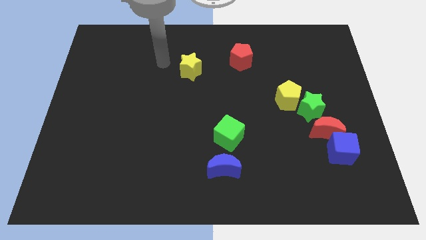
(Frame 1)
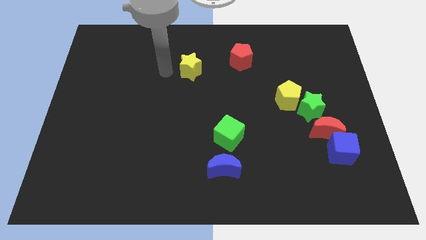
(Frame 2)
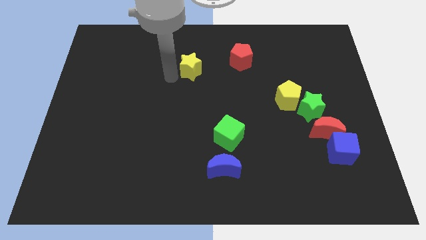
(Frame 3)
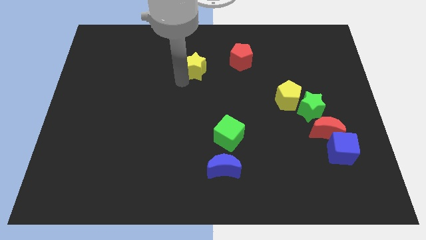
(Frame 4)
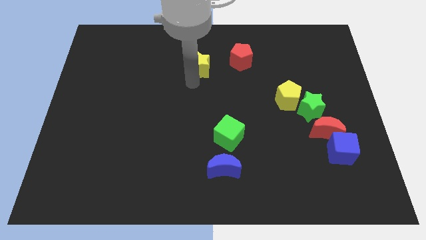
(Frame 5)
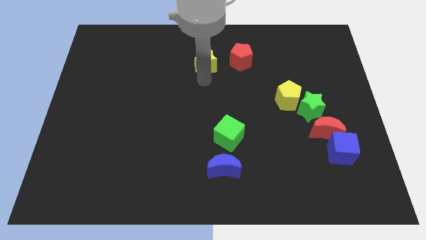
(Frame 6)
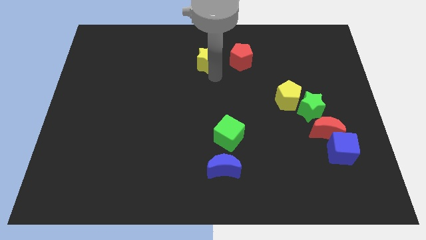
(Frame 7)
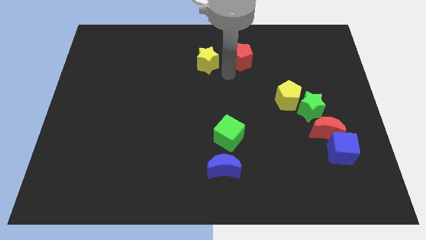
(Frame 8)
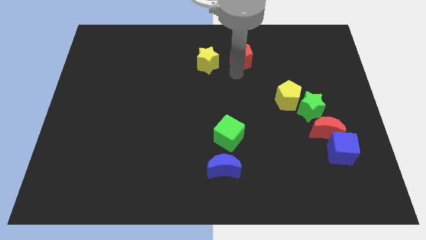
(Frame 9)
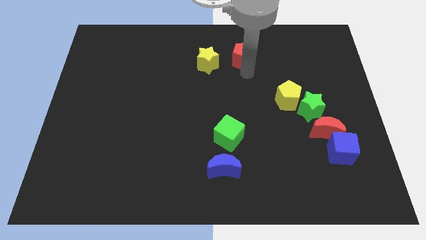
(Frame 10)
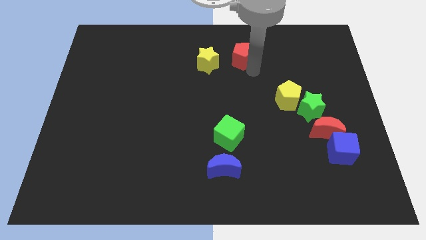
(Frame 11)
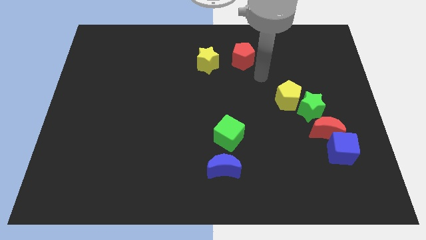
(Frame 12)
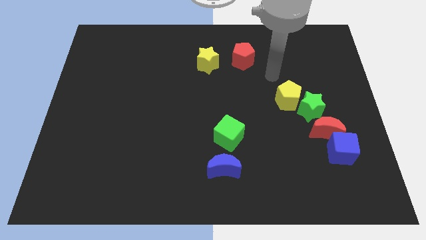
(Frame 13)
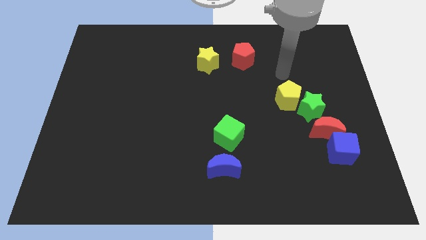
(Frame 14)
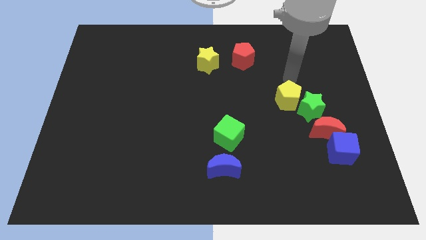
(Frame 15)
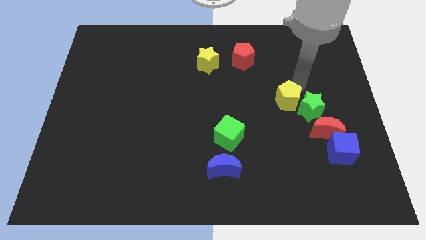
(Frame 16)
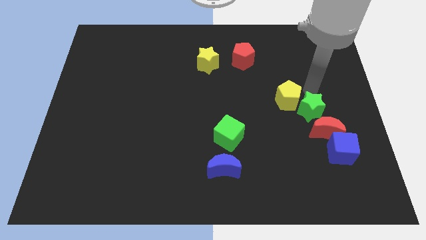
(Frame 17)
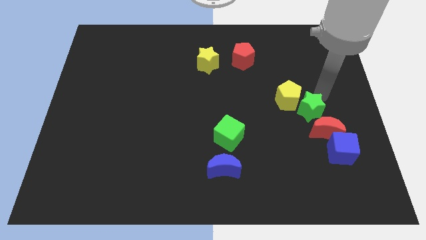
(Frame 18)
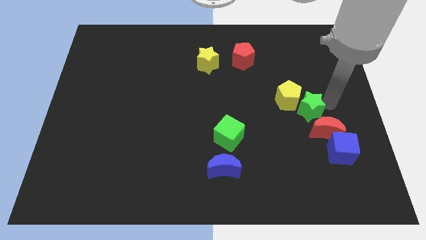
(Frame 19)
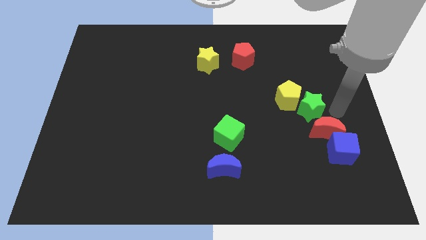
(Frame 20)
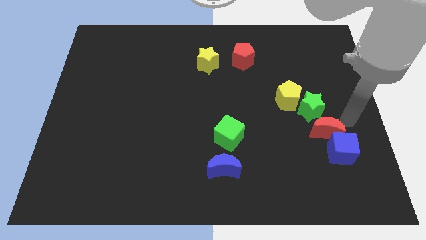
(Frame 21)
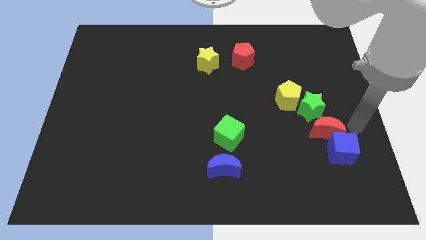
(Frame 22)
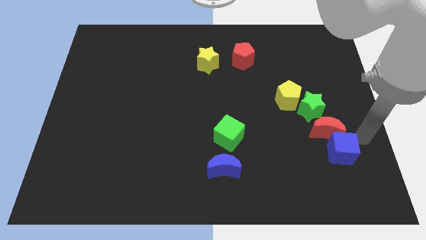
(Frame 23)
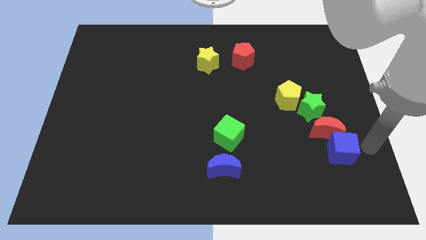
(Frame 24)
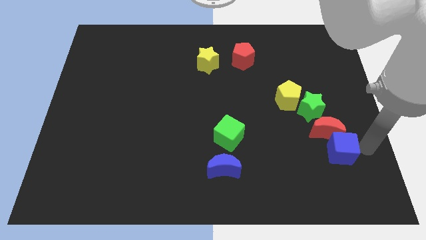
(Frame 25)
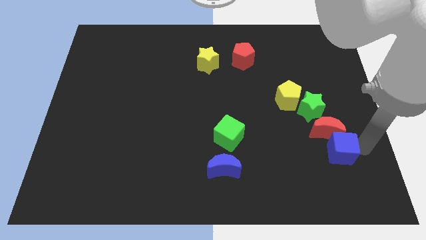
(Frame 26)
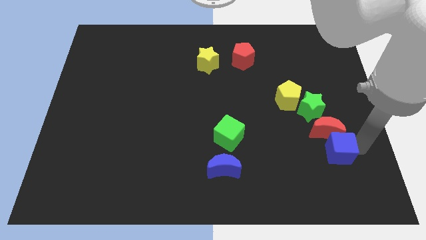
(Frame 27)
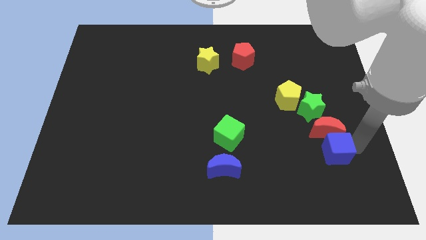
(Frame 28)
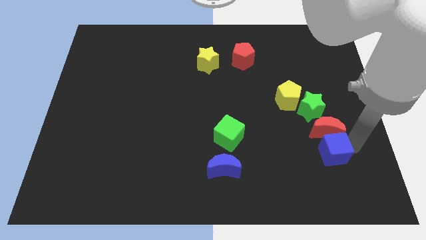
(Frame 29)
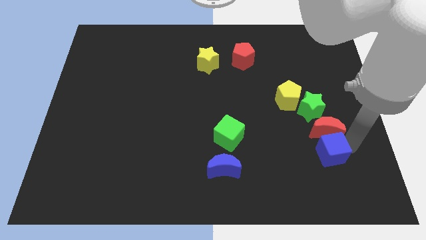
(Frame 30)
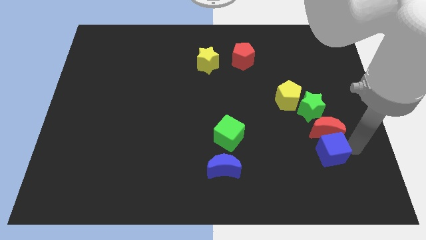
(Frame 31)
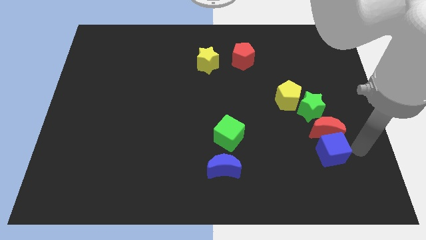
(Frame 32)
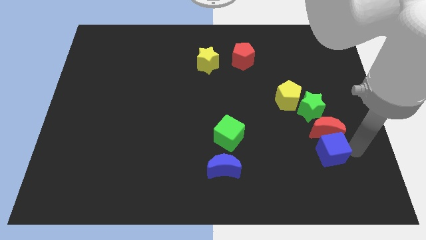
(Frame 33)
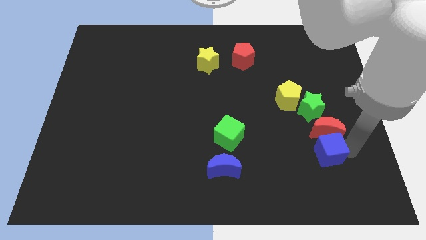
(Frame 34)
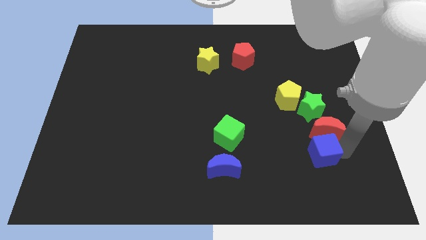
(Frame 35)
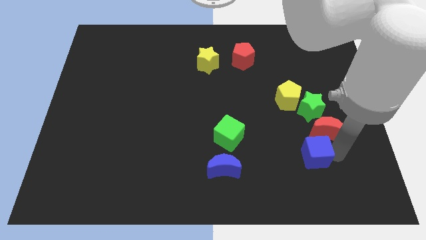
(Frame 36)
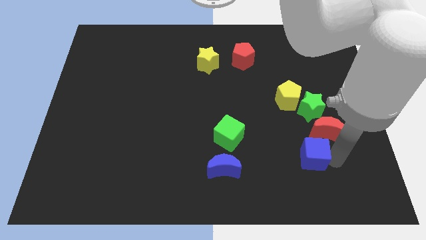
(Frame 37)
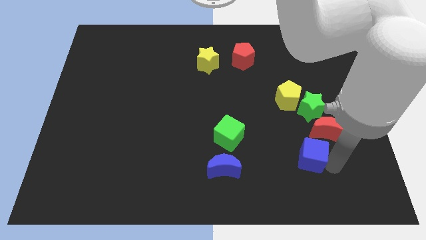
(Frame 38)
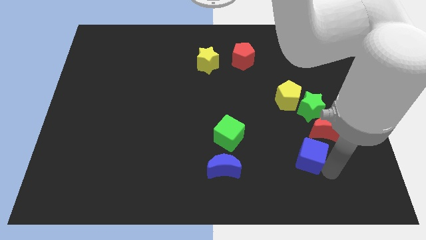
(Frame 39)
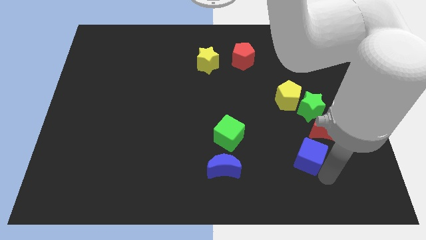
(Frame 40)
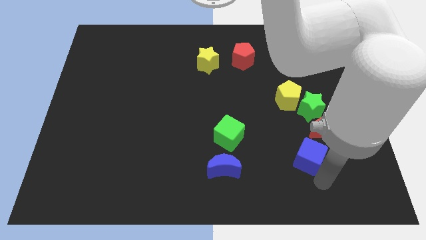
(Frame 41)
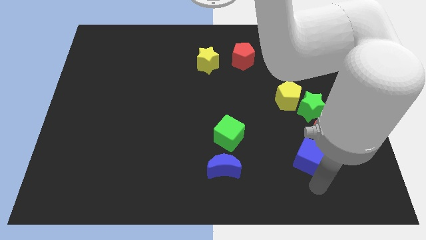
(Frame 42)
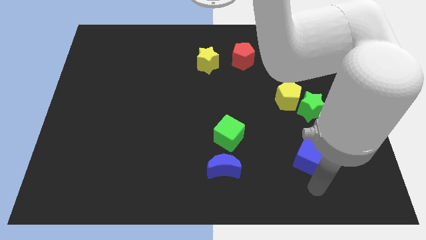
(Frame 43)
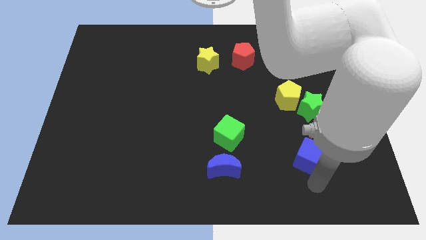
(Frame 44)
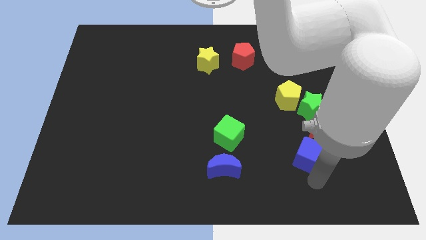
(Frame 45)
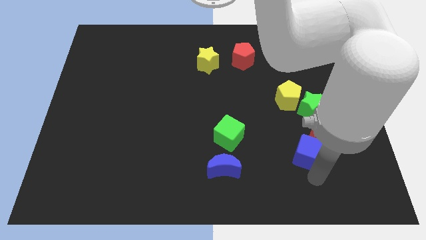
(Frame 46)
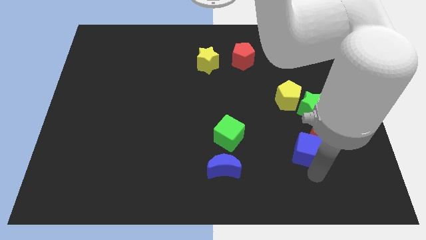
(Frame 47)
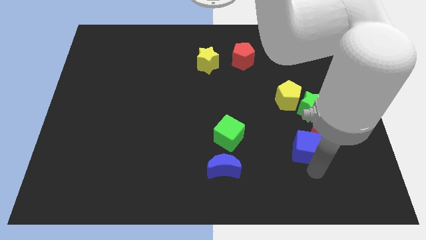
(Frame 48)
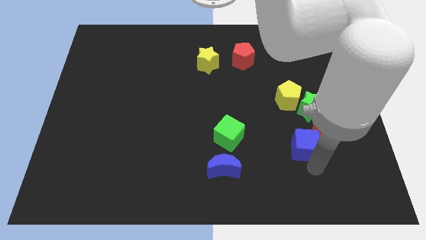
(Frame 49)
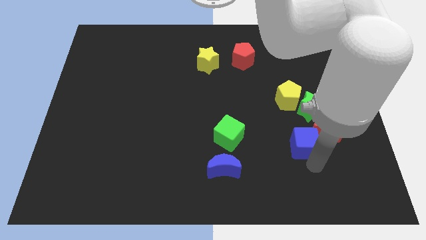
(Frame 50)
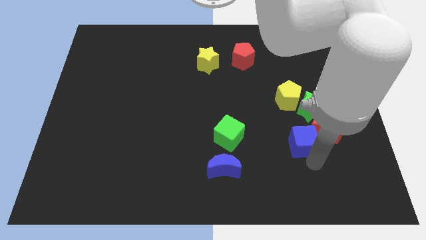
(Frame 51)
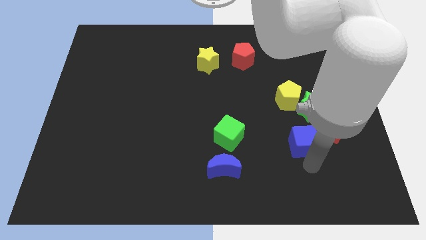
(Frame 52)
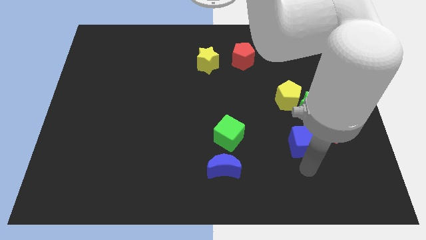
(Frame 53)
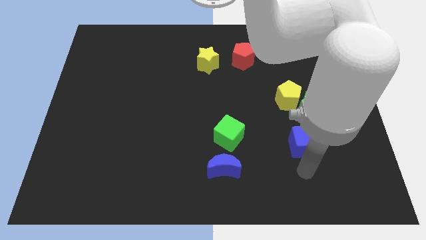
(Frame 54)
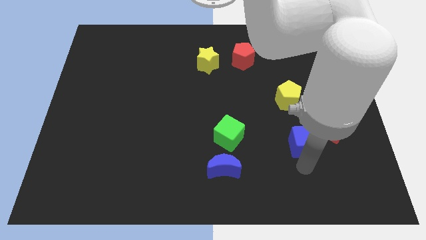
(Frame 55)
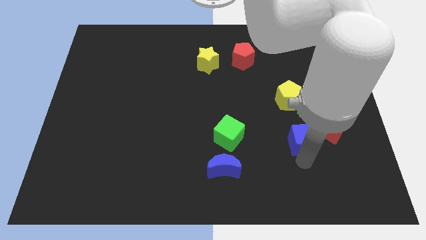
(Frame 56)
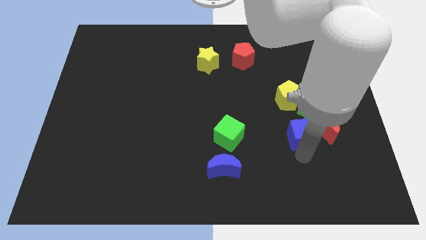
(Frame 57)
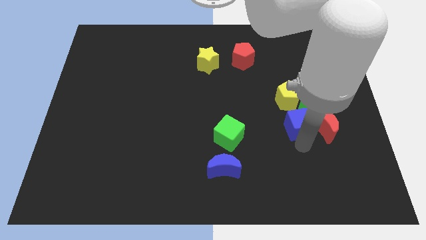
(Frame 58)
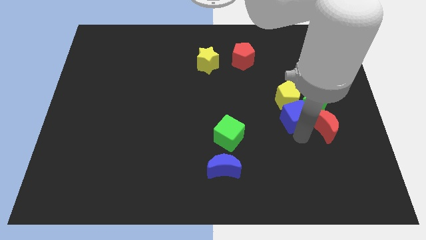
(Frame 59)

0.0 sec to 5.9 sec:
move the blue cube close to the yellow pentagon

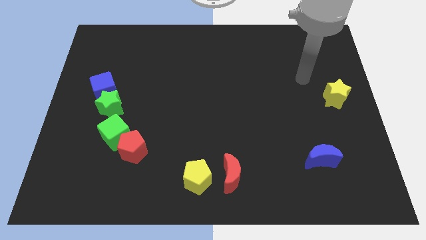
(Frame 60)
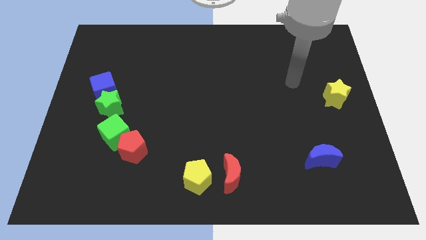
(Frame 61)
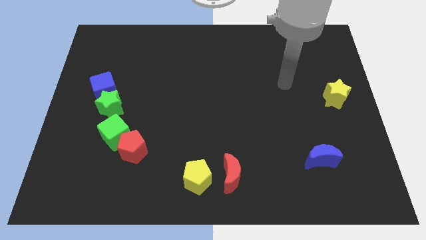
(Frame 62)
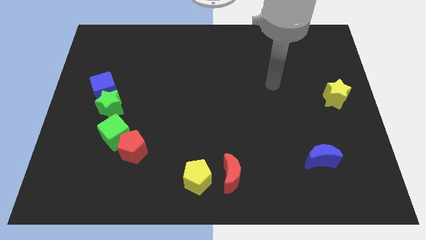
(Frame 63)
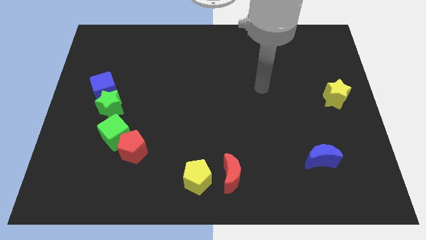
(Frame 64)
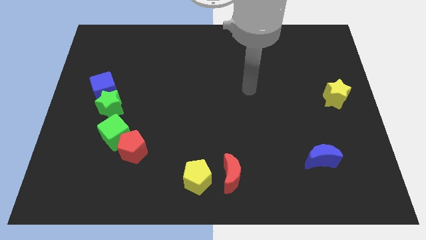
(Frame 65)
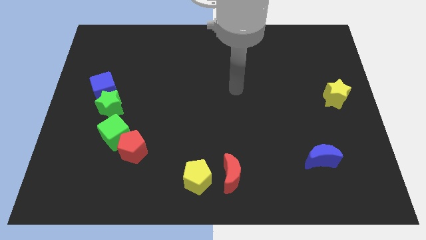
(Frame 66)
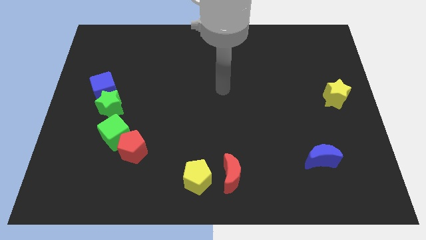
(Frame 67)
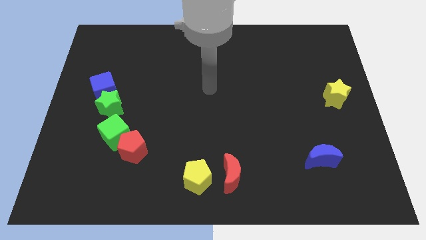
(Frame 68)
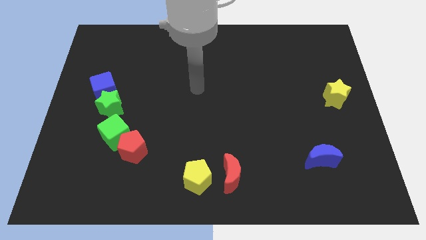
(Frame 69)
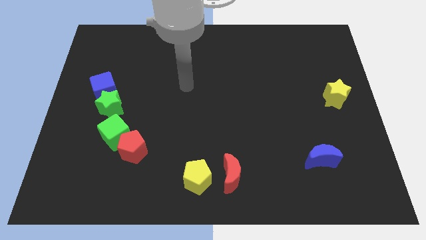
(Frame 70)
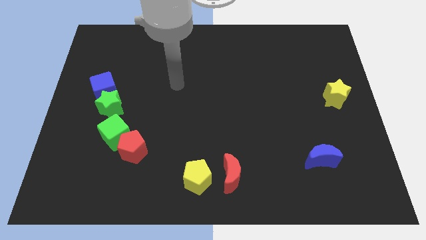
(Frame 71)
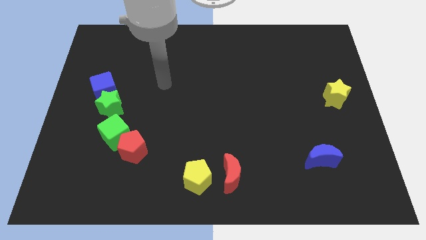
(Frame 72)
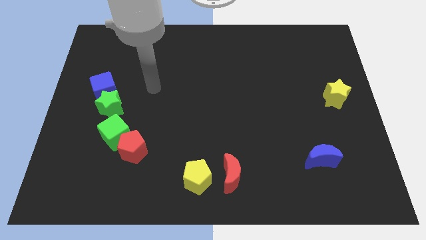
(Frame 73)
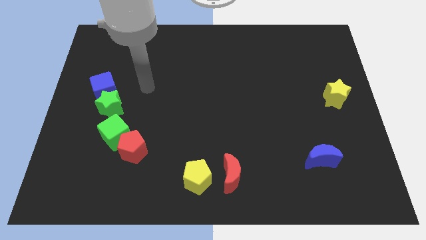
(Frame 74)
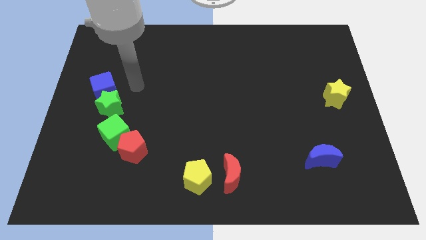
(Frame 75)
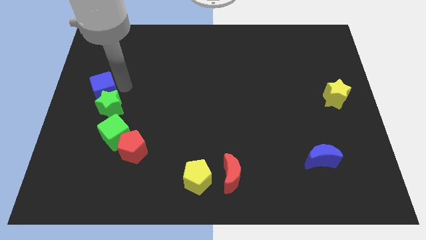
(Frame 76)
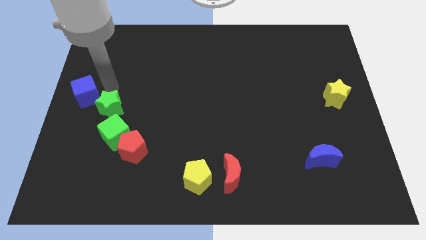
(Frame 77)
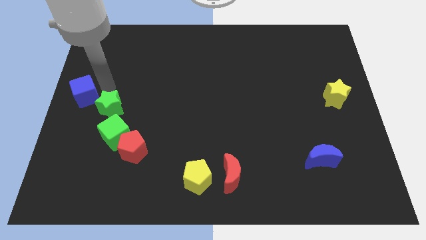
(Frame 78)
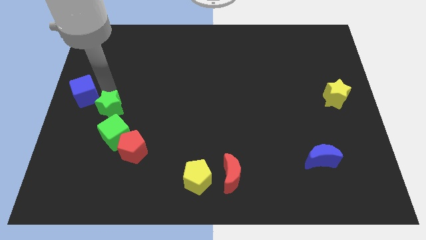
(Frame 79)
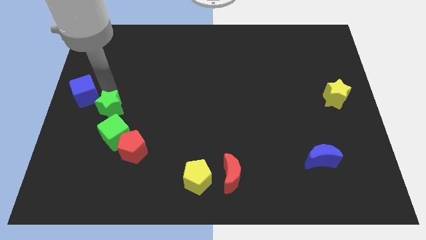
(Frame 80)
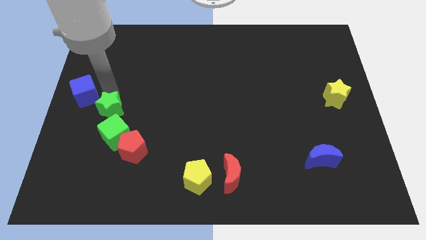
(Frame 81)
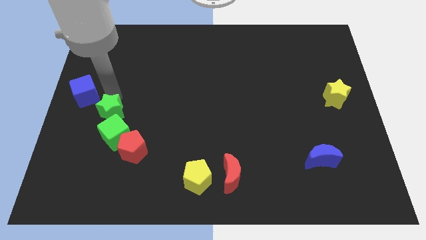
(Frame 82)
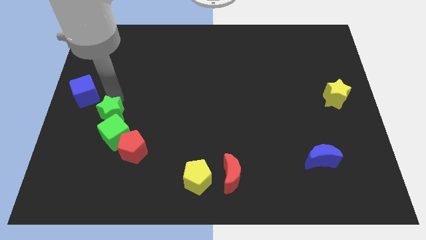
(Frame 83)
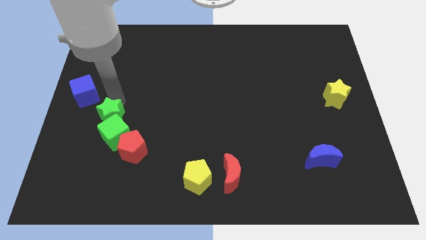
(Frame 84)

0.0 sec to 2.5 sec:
slide the green star close to the green cube
